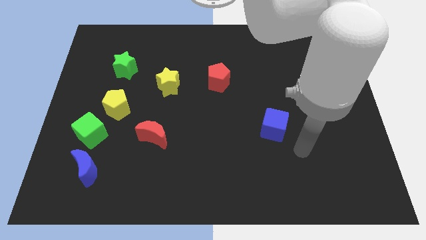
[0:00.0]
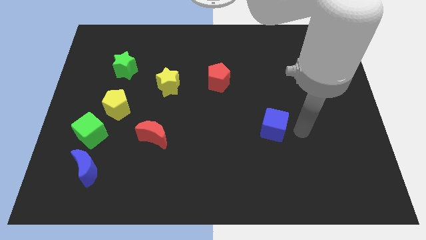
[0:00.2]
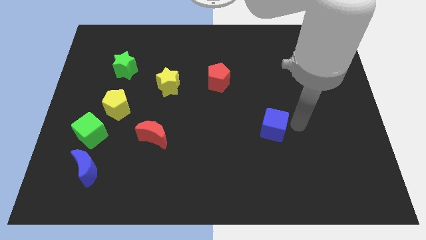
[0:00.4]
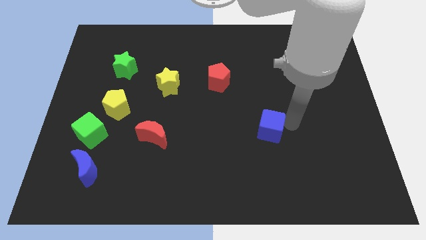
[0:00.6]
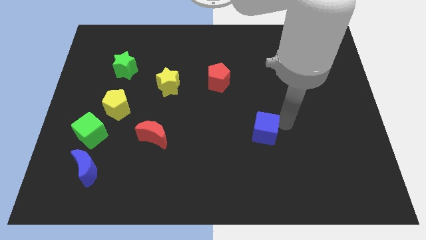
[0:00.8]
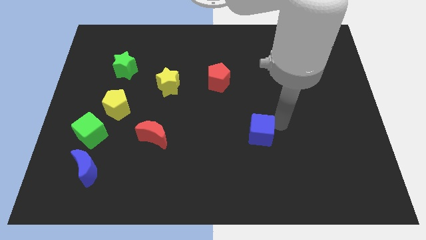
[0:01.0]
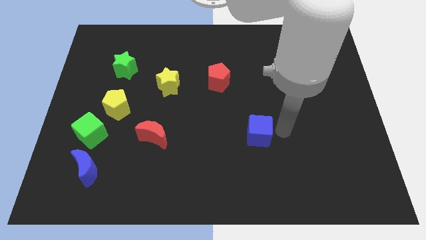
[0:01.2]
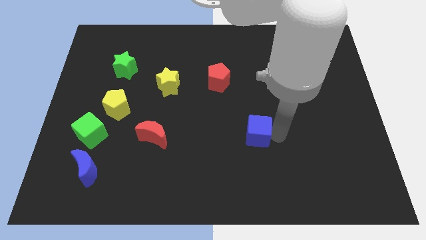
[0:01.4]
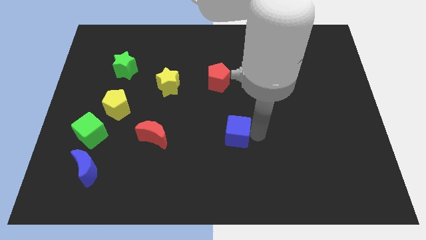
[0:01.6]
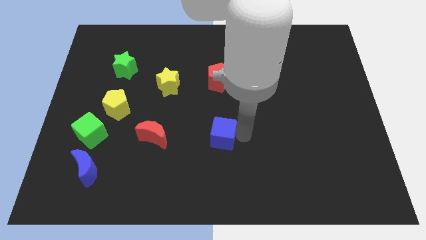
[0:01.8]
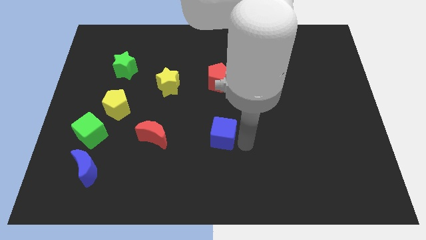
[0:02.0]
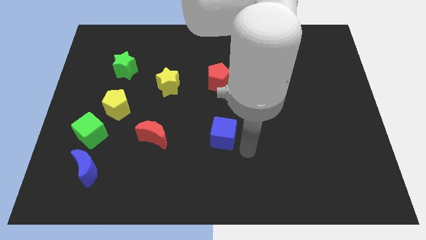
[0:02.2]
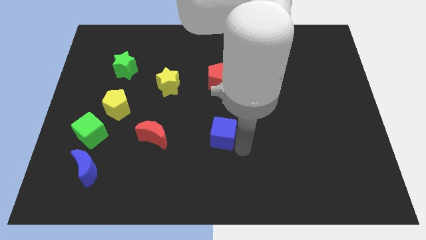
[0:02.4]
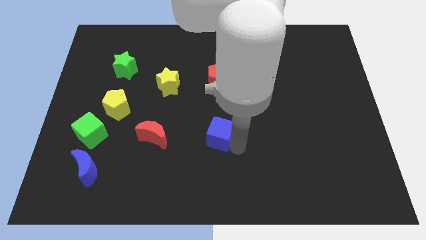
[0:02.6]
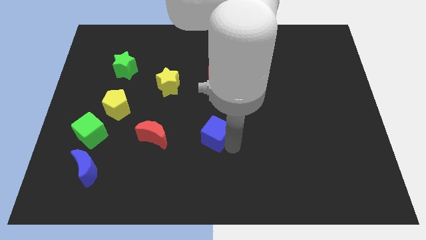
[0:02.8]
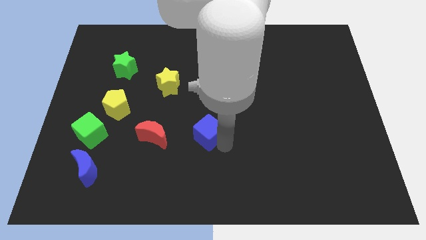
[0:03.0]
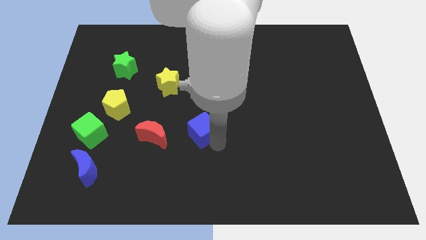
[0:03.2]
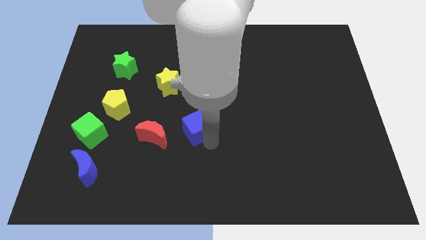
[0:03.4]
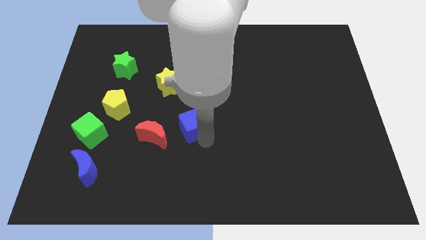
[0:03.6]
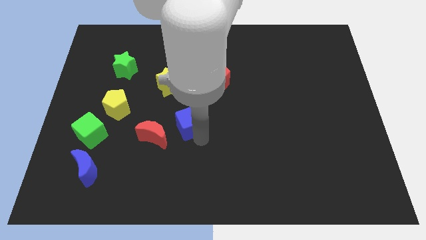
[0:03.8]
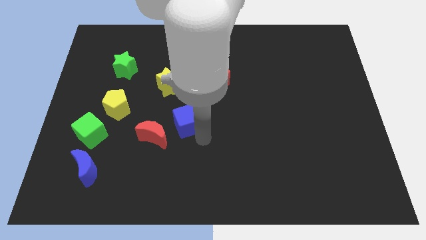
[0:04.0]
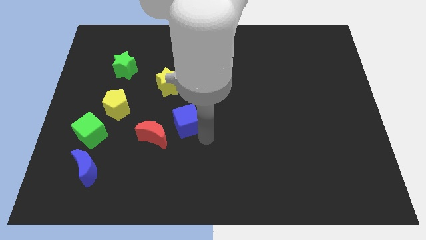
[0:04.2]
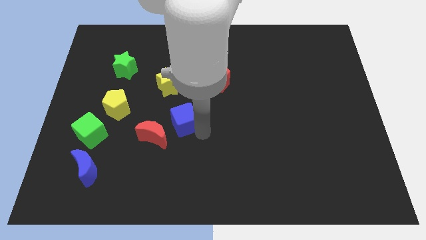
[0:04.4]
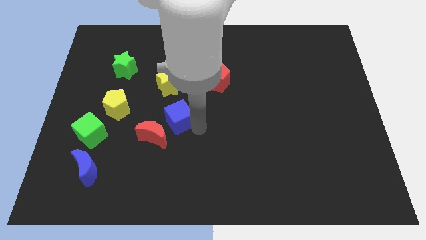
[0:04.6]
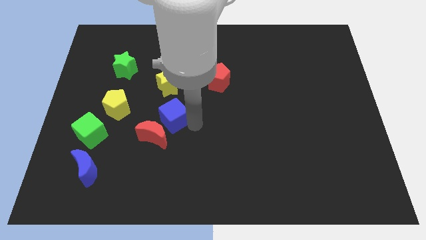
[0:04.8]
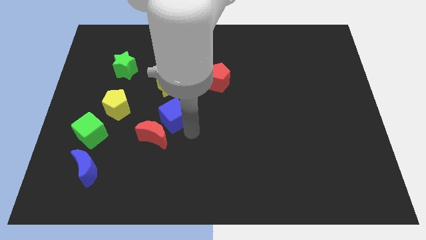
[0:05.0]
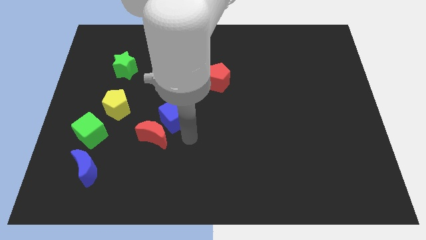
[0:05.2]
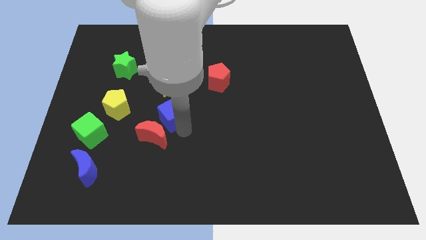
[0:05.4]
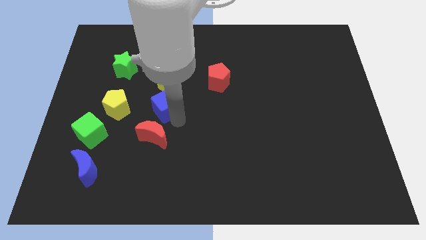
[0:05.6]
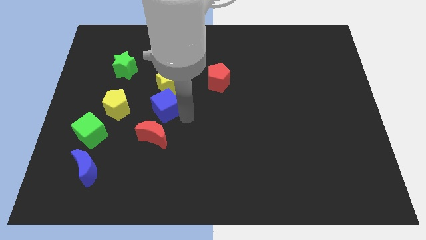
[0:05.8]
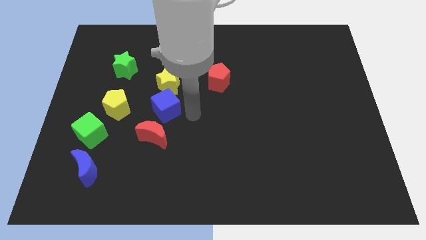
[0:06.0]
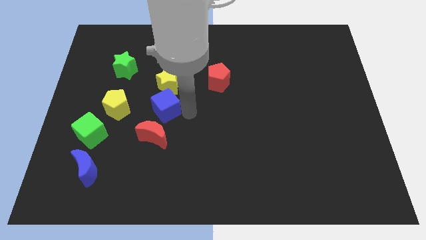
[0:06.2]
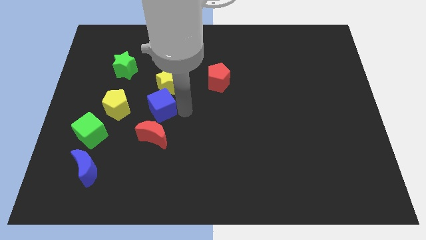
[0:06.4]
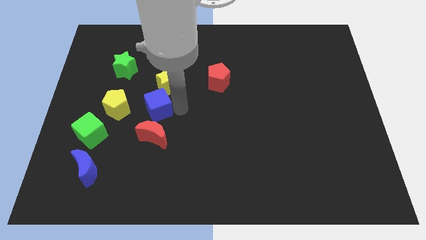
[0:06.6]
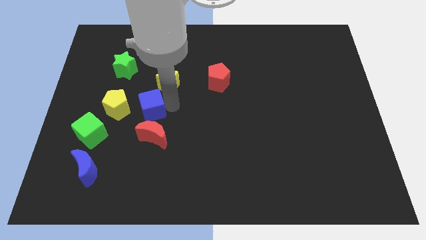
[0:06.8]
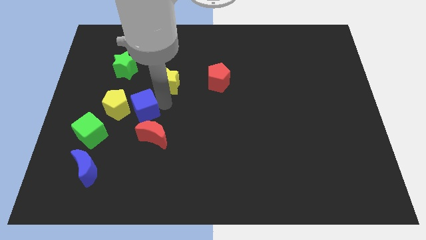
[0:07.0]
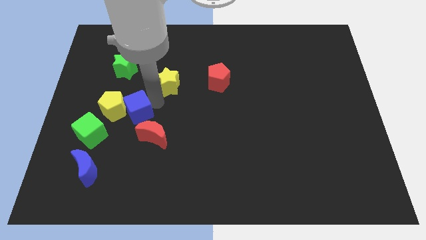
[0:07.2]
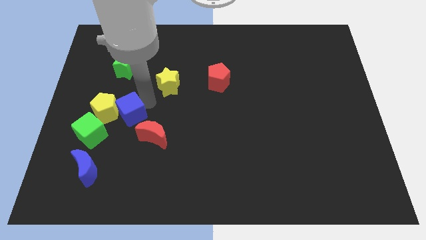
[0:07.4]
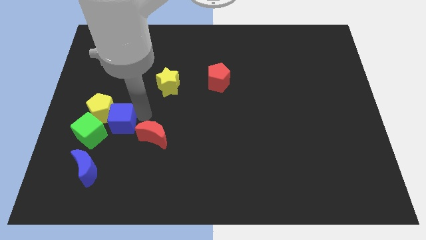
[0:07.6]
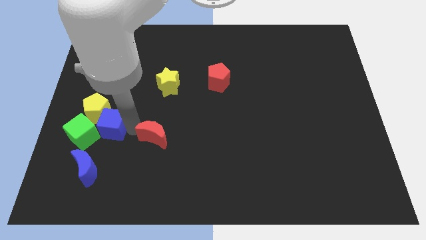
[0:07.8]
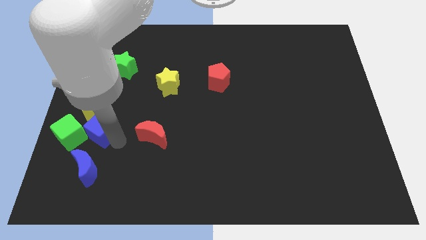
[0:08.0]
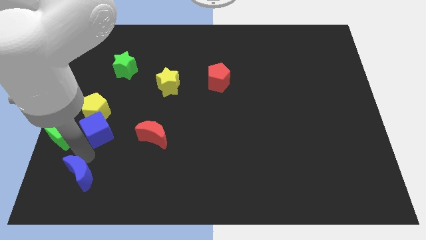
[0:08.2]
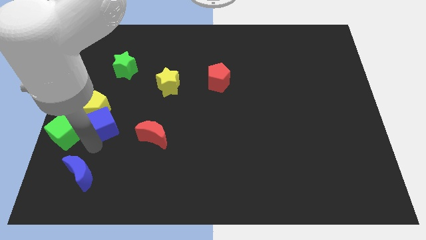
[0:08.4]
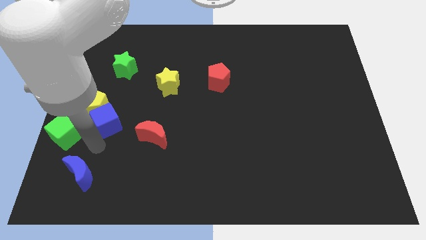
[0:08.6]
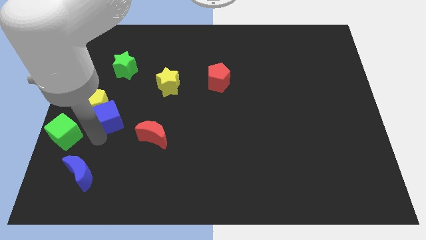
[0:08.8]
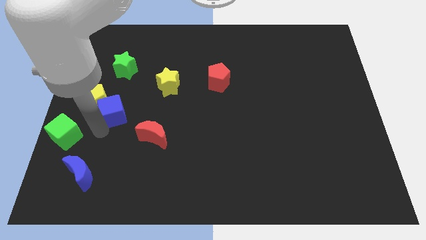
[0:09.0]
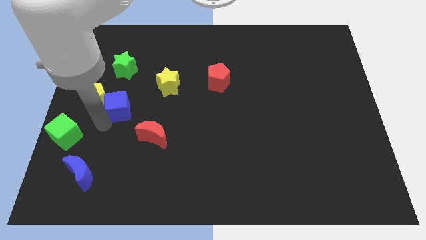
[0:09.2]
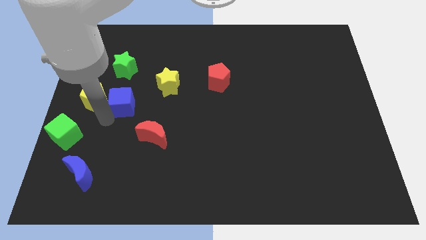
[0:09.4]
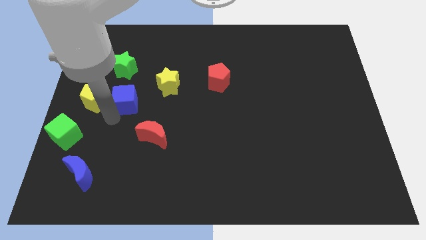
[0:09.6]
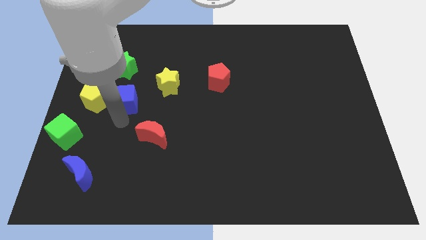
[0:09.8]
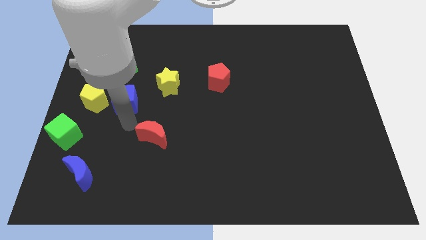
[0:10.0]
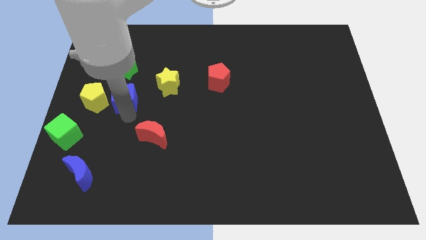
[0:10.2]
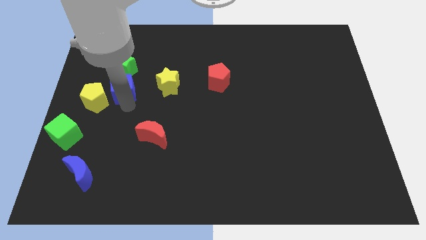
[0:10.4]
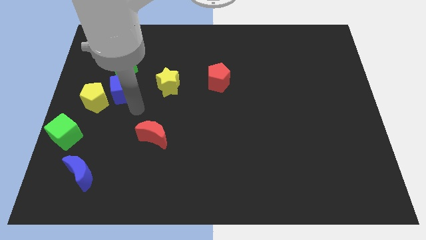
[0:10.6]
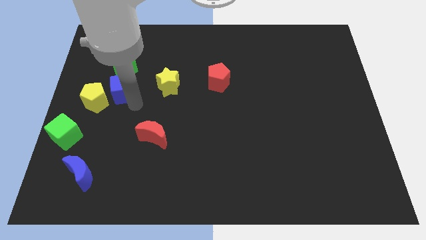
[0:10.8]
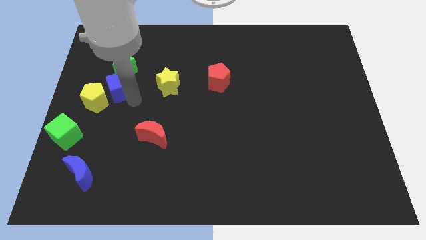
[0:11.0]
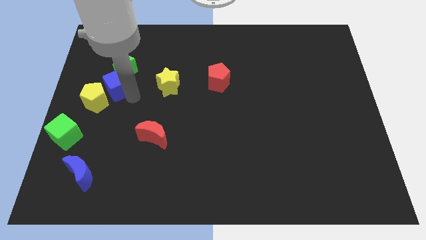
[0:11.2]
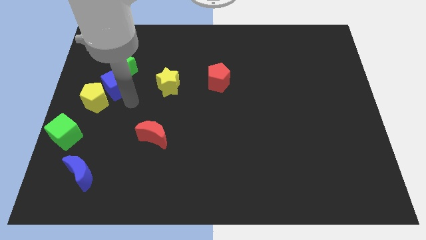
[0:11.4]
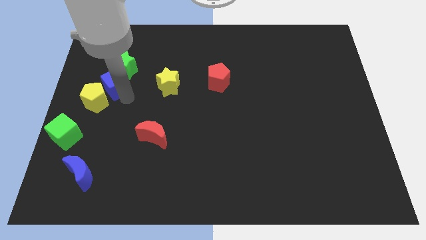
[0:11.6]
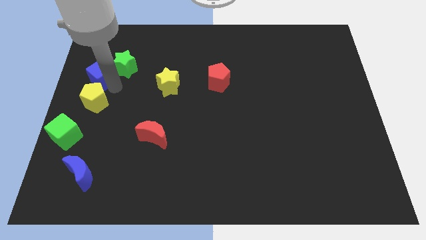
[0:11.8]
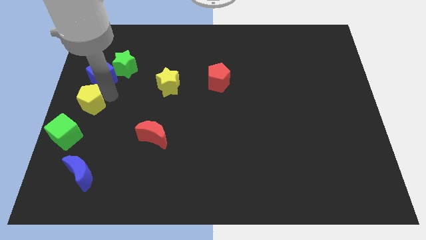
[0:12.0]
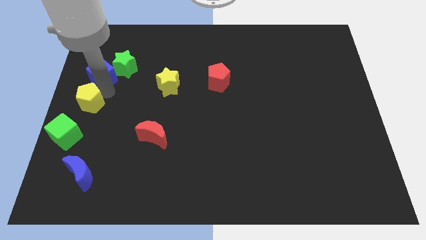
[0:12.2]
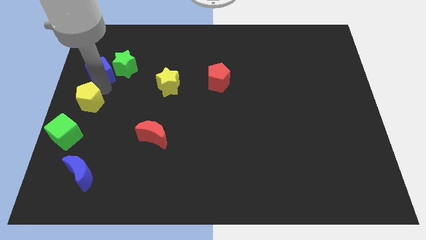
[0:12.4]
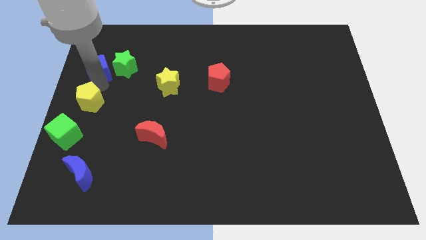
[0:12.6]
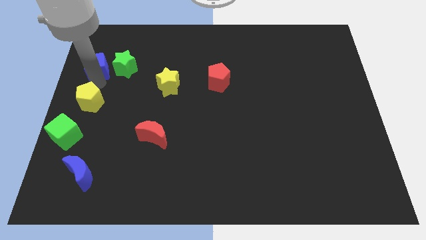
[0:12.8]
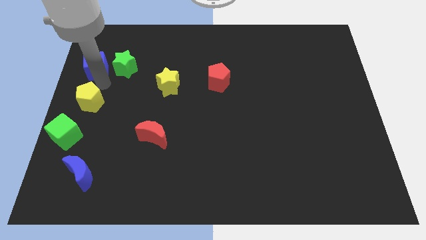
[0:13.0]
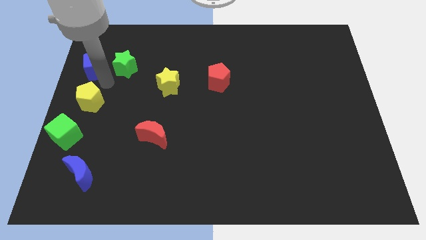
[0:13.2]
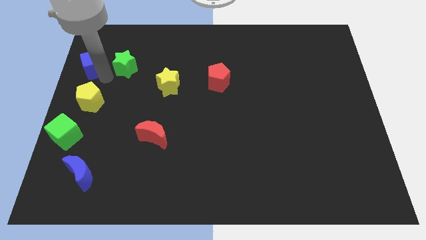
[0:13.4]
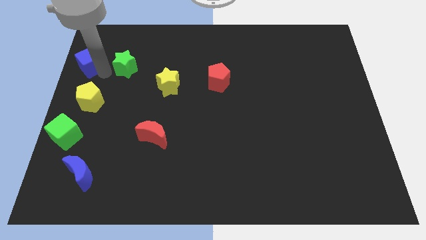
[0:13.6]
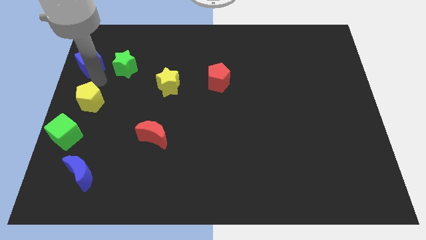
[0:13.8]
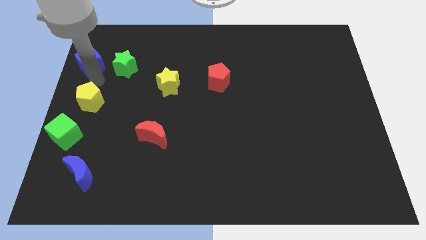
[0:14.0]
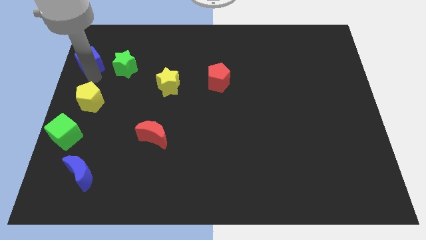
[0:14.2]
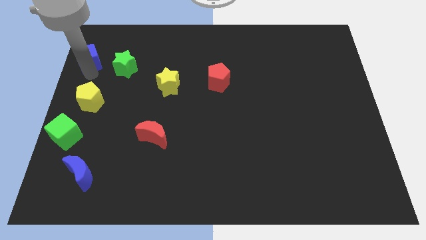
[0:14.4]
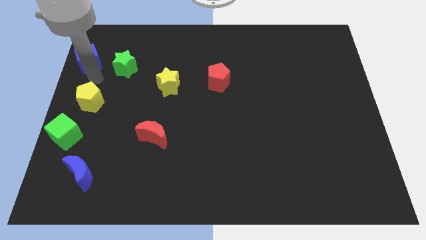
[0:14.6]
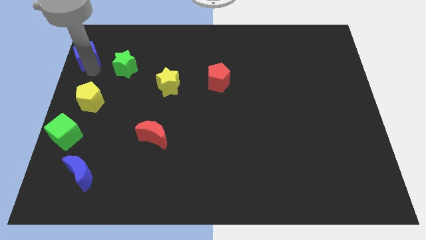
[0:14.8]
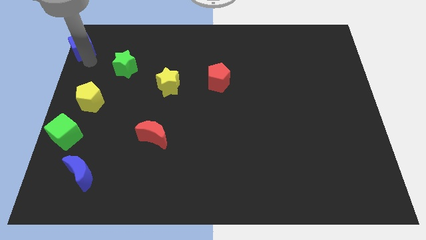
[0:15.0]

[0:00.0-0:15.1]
push the blue cube to the top left of the board
